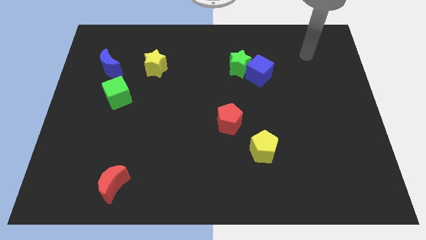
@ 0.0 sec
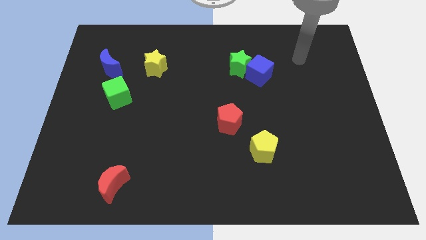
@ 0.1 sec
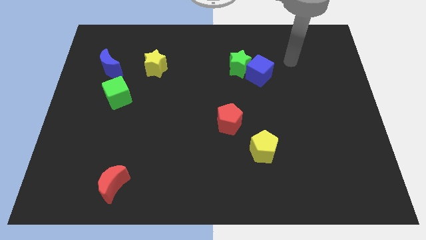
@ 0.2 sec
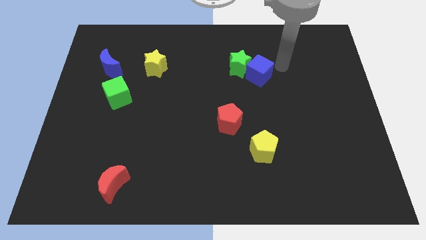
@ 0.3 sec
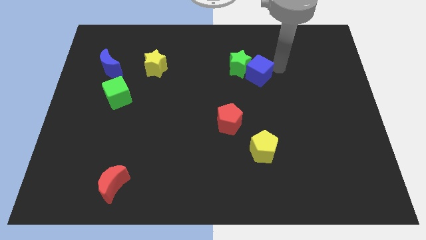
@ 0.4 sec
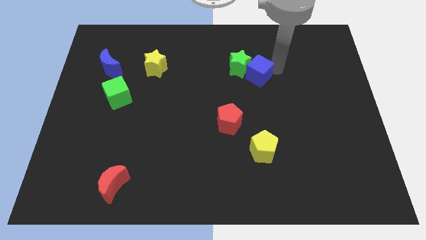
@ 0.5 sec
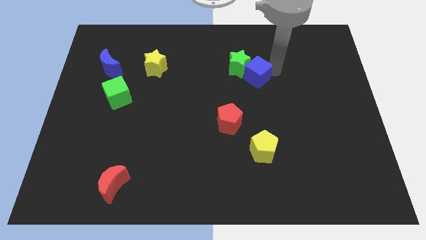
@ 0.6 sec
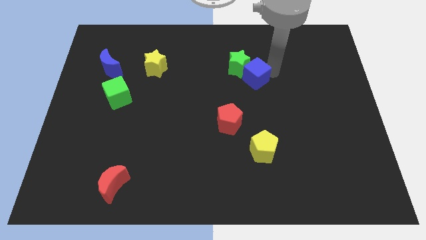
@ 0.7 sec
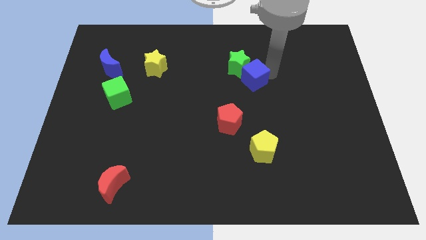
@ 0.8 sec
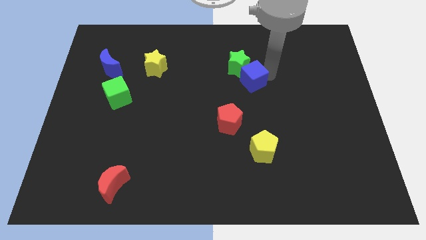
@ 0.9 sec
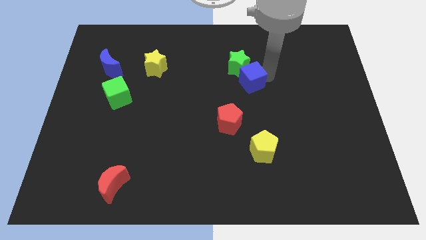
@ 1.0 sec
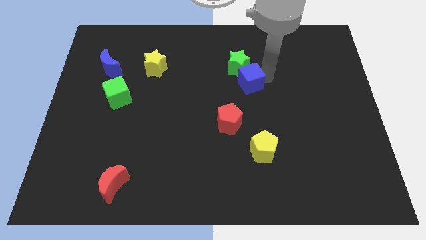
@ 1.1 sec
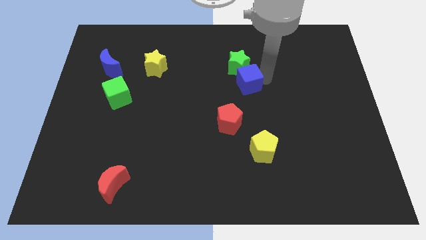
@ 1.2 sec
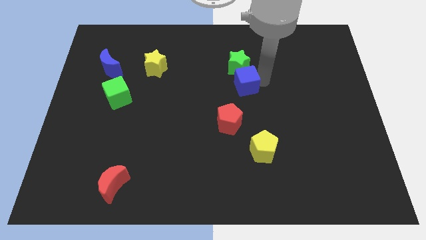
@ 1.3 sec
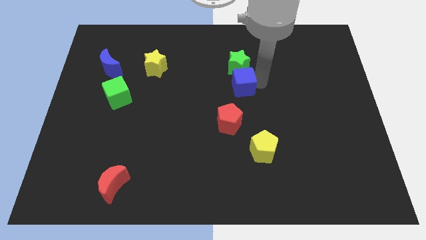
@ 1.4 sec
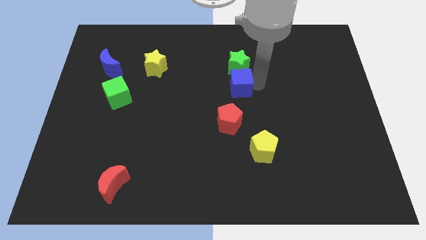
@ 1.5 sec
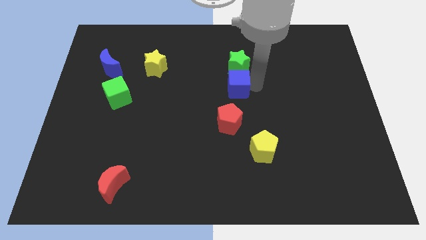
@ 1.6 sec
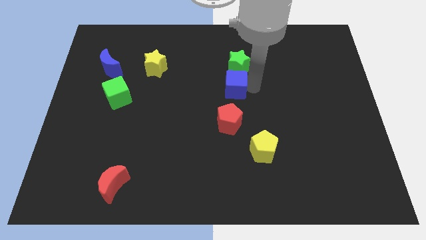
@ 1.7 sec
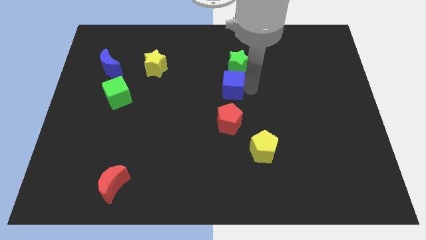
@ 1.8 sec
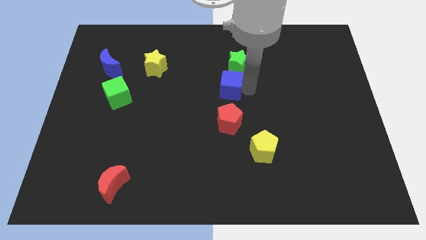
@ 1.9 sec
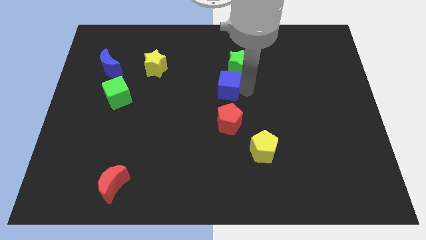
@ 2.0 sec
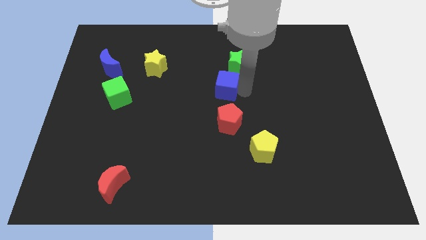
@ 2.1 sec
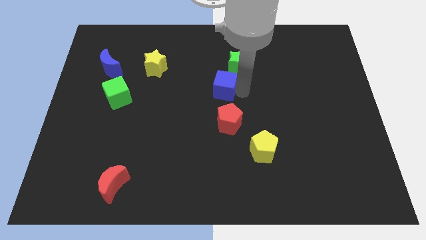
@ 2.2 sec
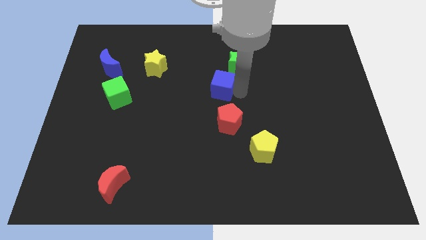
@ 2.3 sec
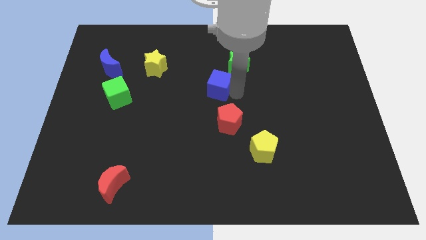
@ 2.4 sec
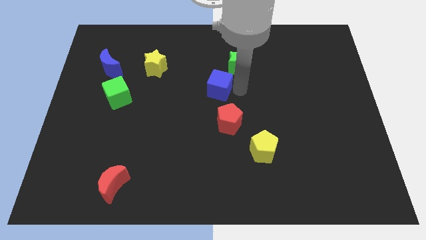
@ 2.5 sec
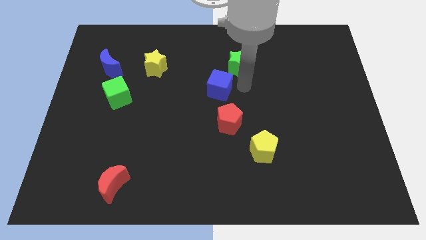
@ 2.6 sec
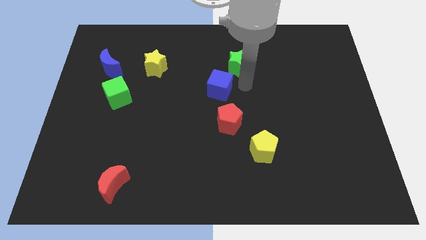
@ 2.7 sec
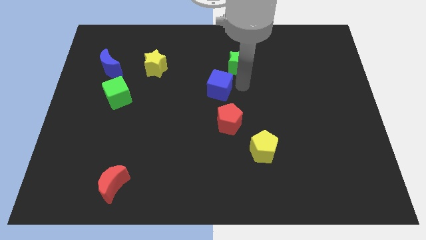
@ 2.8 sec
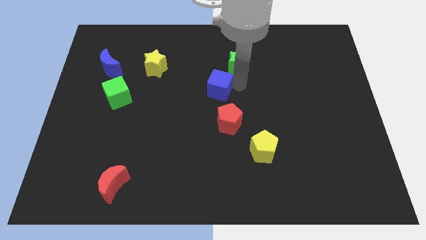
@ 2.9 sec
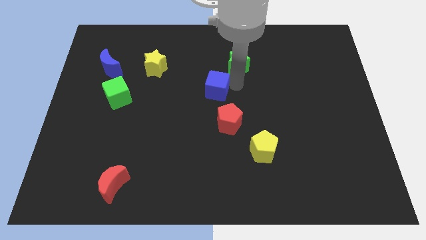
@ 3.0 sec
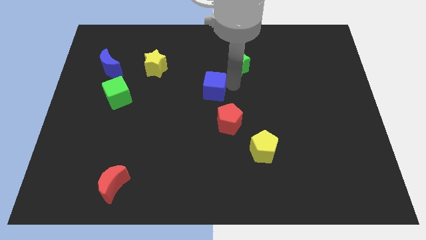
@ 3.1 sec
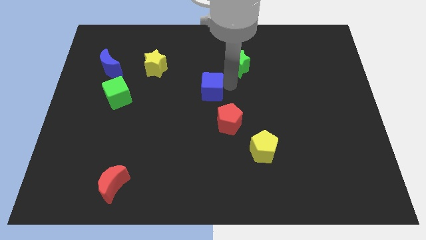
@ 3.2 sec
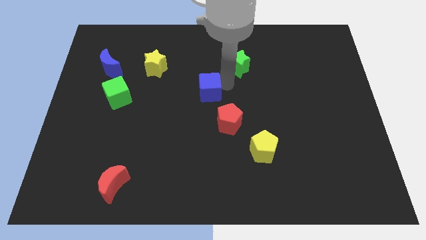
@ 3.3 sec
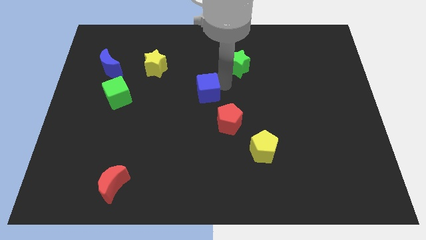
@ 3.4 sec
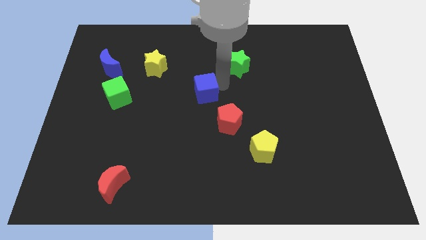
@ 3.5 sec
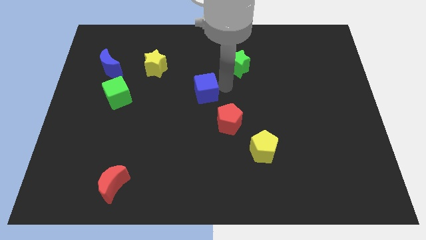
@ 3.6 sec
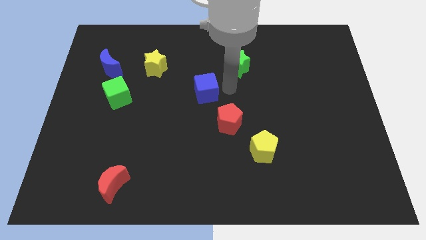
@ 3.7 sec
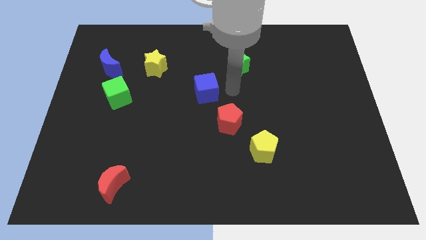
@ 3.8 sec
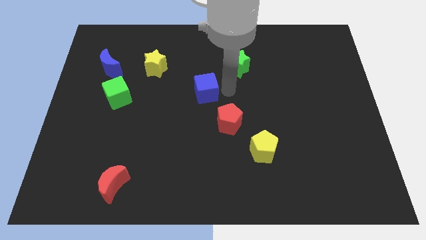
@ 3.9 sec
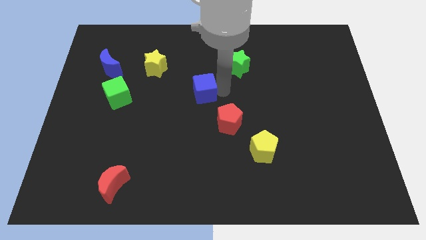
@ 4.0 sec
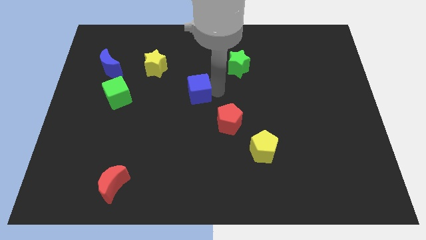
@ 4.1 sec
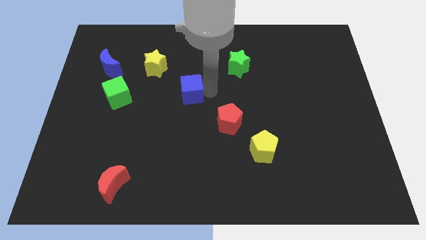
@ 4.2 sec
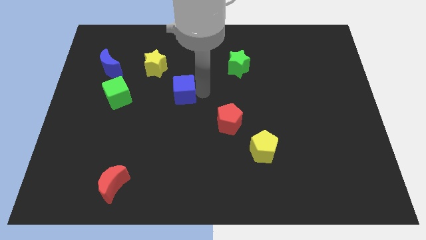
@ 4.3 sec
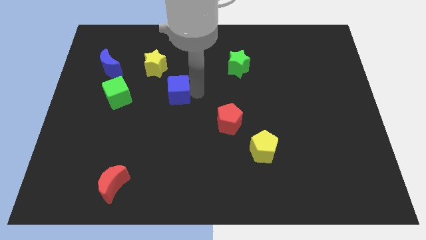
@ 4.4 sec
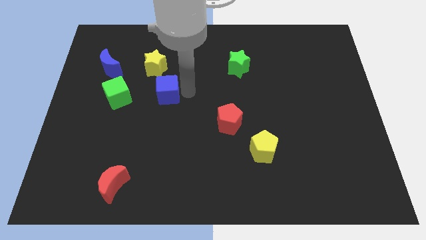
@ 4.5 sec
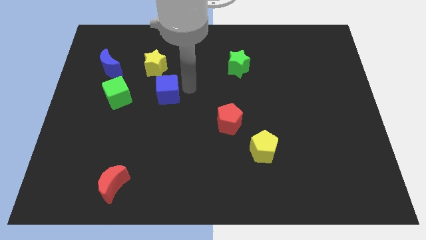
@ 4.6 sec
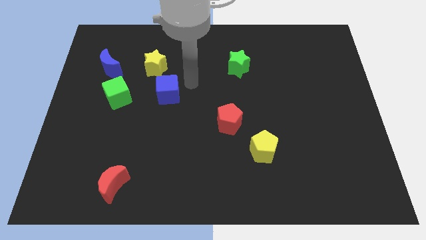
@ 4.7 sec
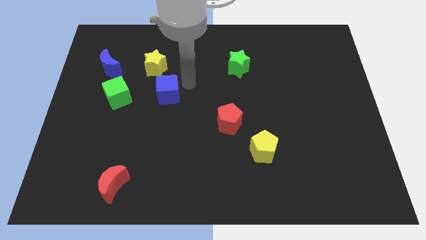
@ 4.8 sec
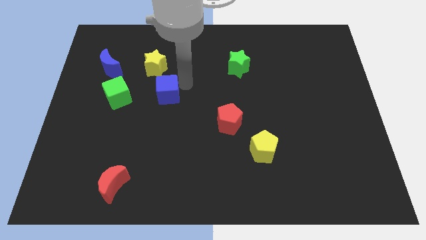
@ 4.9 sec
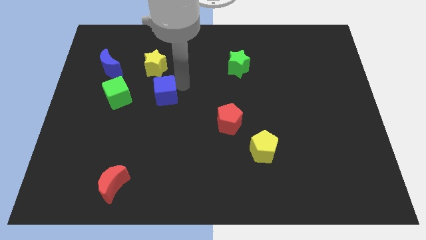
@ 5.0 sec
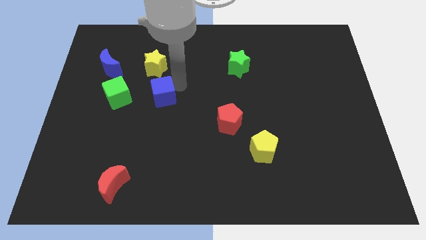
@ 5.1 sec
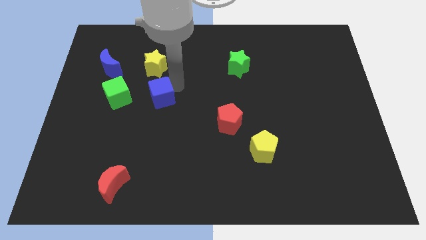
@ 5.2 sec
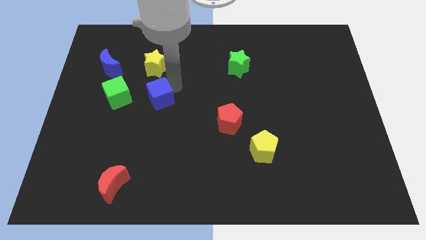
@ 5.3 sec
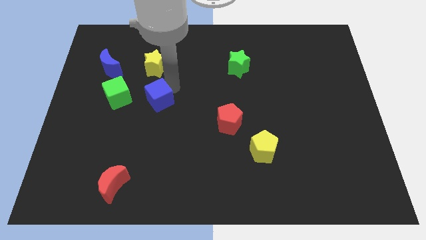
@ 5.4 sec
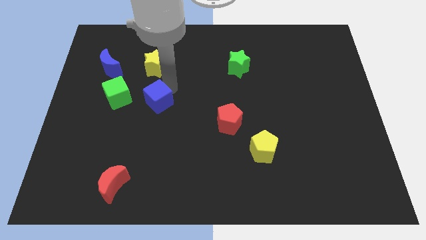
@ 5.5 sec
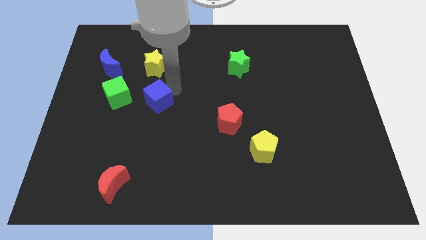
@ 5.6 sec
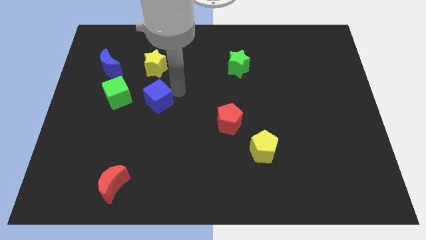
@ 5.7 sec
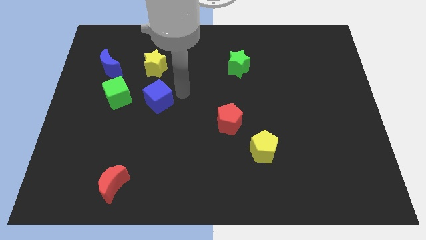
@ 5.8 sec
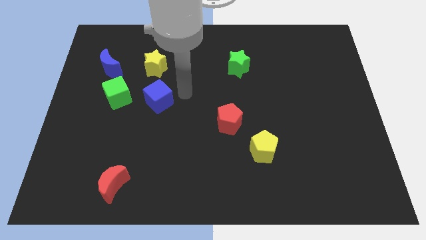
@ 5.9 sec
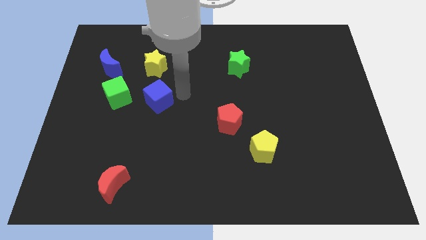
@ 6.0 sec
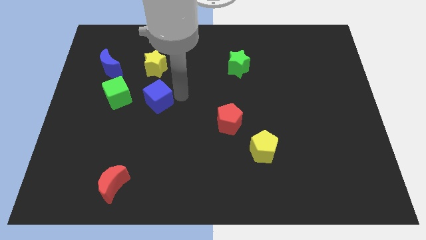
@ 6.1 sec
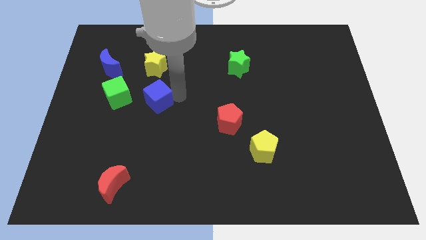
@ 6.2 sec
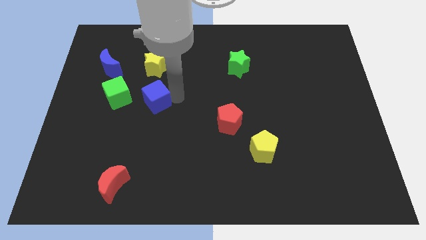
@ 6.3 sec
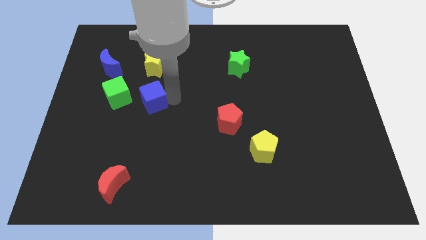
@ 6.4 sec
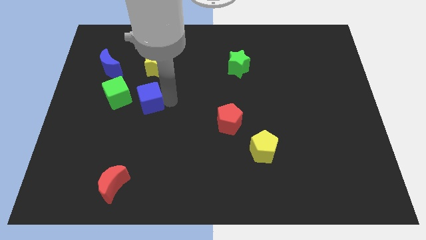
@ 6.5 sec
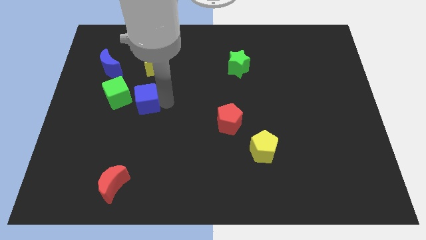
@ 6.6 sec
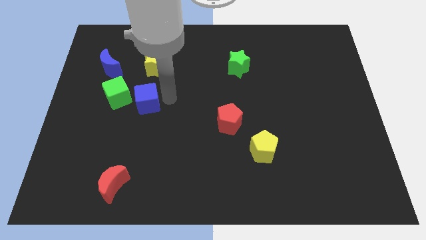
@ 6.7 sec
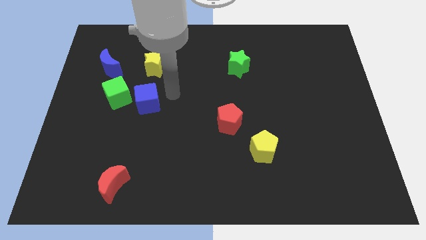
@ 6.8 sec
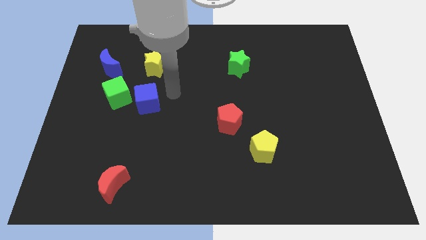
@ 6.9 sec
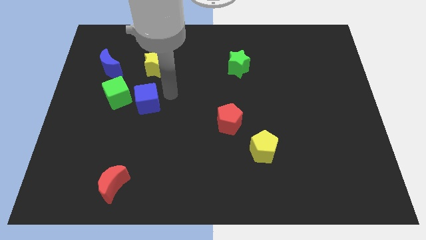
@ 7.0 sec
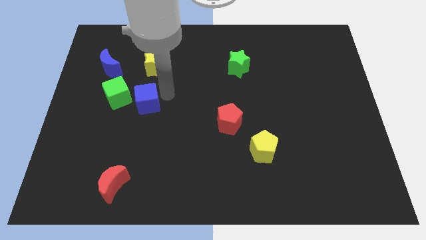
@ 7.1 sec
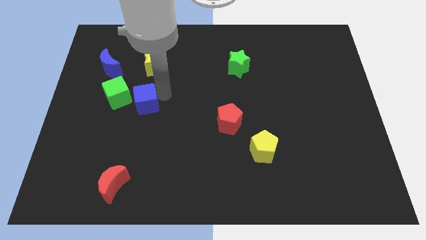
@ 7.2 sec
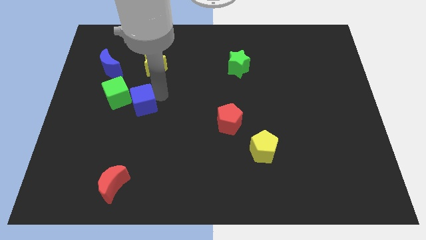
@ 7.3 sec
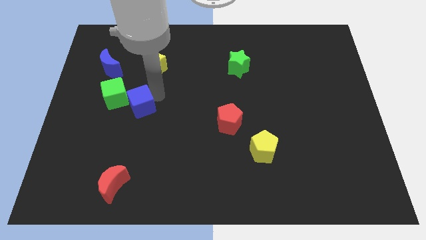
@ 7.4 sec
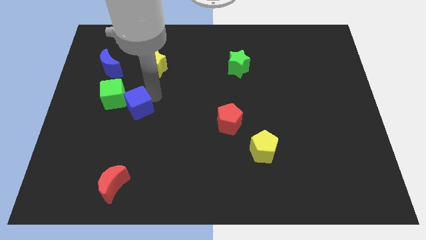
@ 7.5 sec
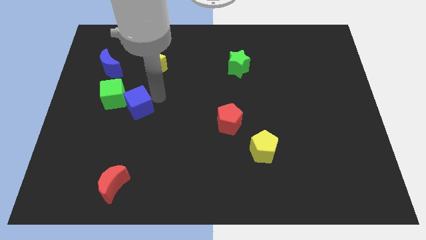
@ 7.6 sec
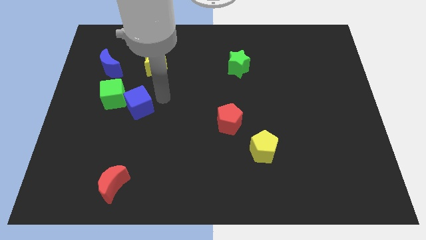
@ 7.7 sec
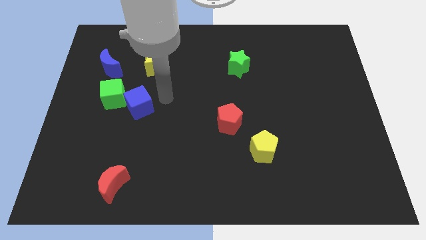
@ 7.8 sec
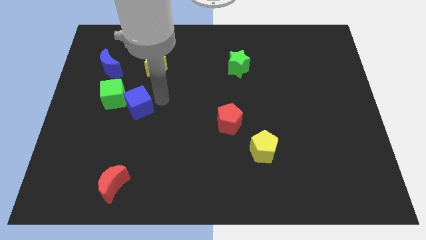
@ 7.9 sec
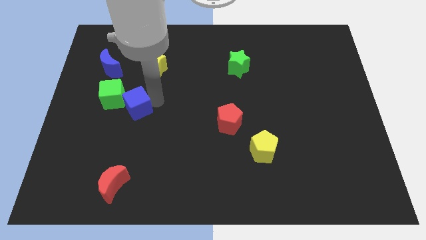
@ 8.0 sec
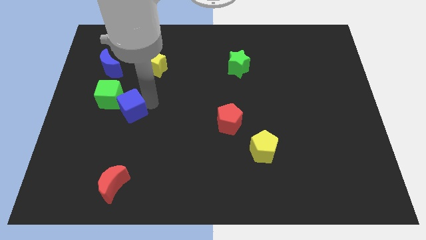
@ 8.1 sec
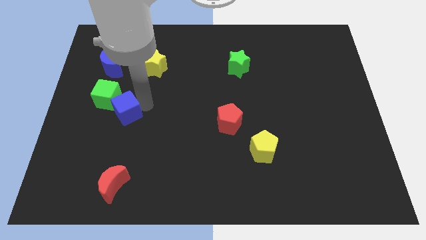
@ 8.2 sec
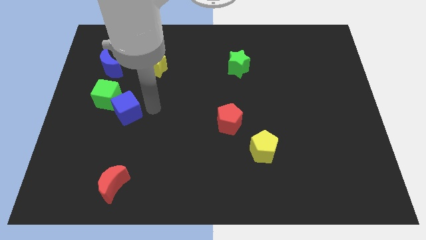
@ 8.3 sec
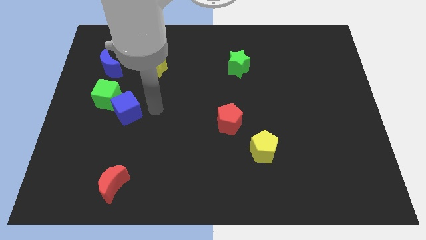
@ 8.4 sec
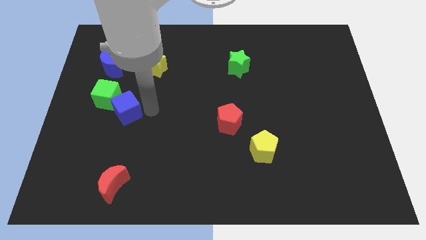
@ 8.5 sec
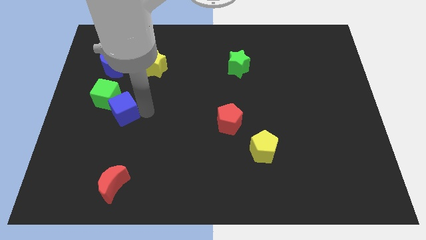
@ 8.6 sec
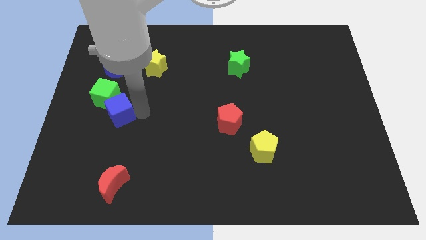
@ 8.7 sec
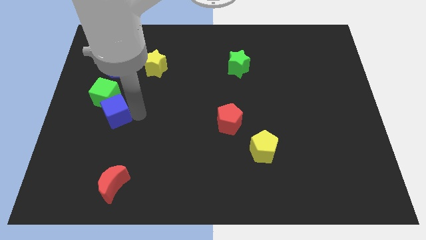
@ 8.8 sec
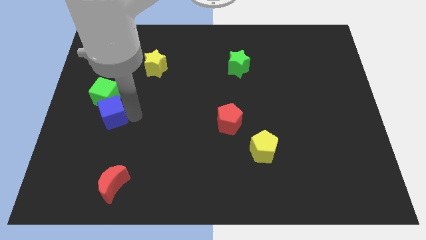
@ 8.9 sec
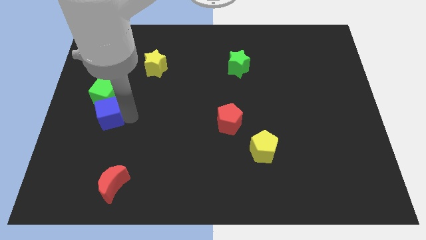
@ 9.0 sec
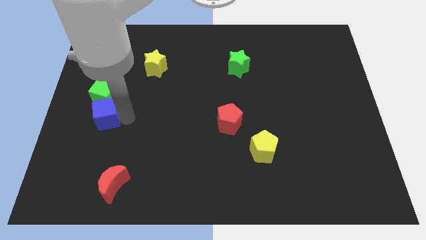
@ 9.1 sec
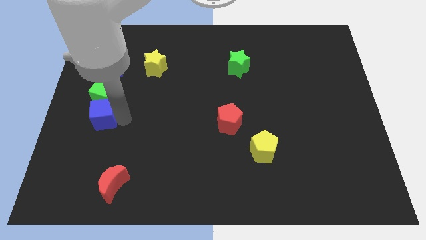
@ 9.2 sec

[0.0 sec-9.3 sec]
put the blue cube diagonally down and to the left of the green cube
